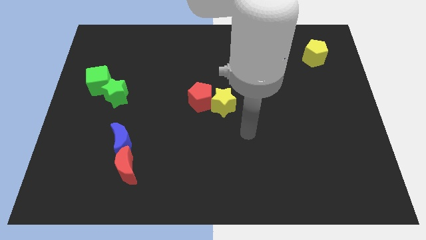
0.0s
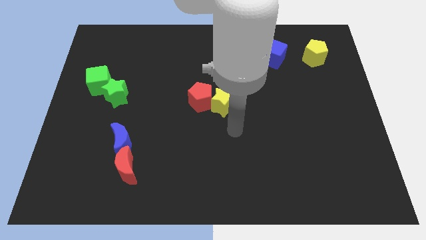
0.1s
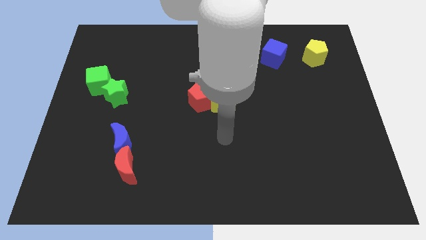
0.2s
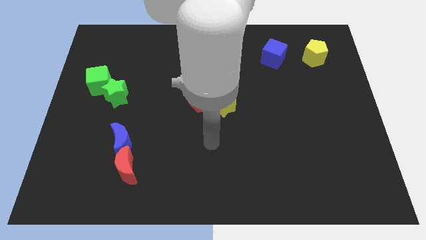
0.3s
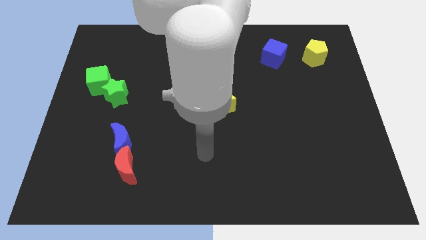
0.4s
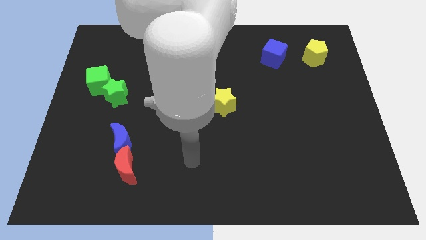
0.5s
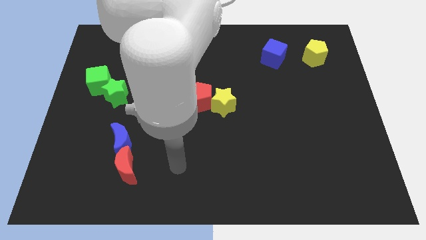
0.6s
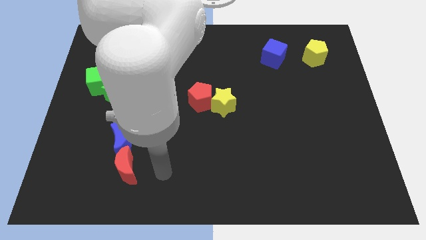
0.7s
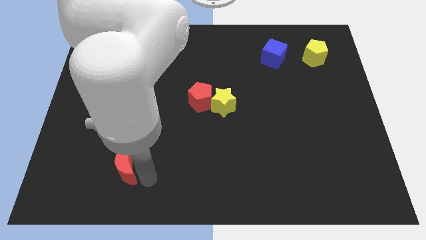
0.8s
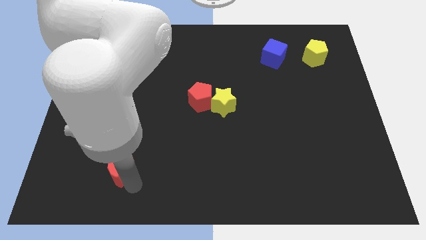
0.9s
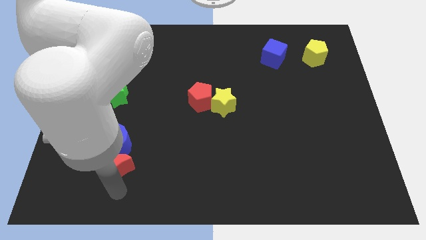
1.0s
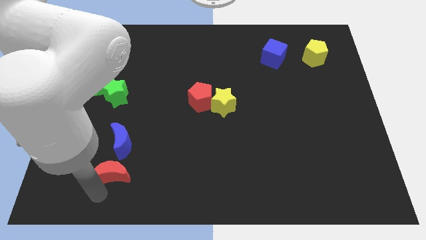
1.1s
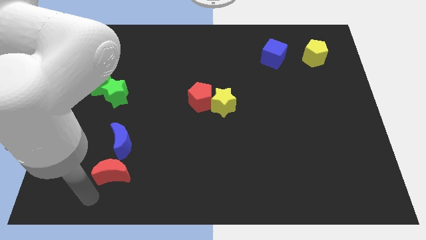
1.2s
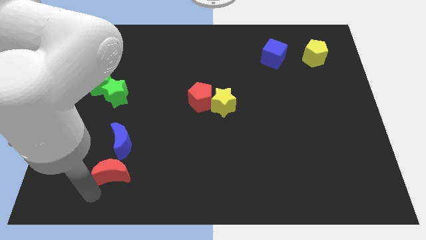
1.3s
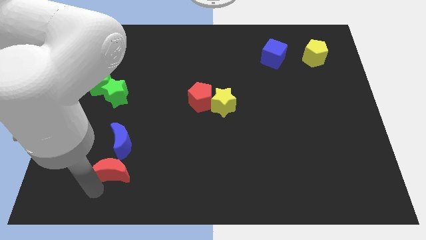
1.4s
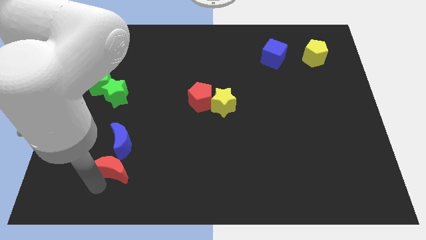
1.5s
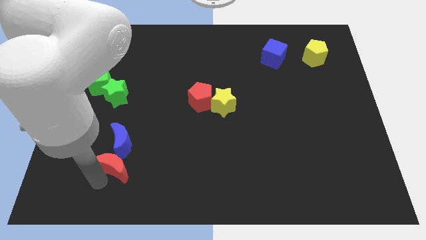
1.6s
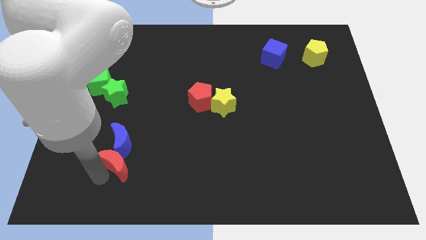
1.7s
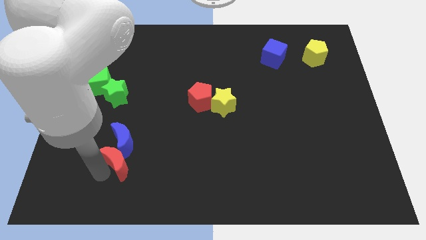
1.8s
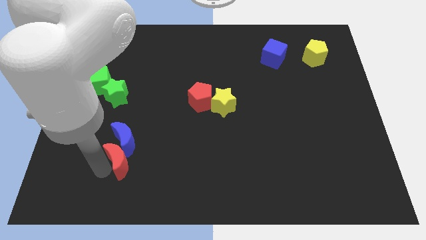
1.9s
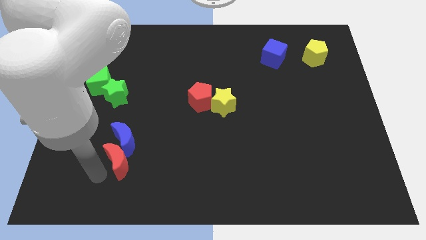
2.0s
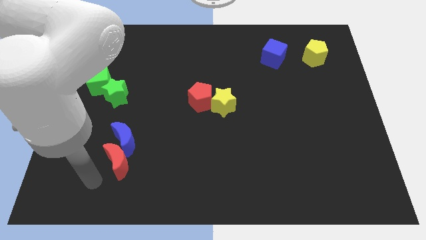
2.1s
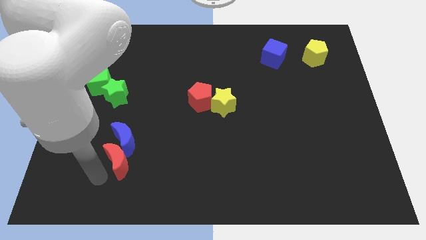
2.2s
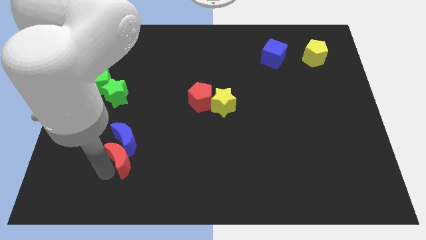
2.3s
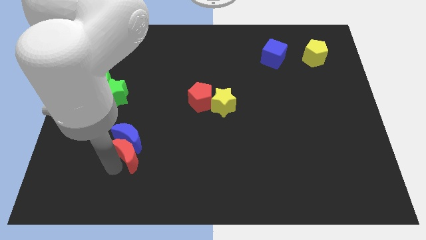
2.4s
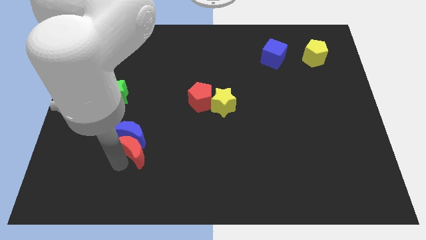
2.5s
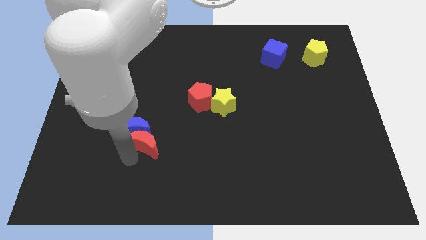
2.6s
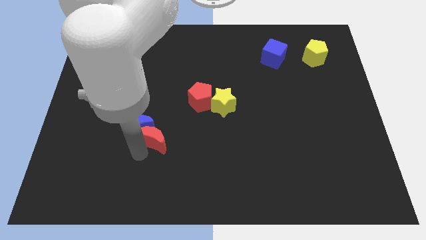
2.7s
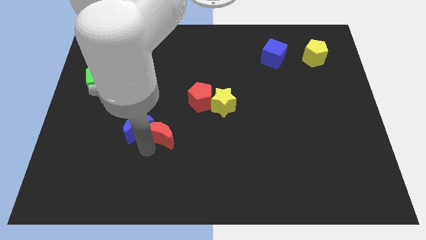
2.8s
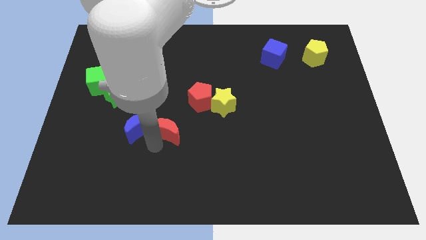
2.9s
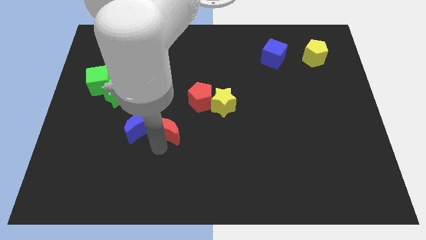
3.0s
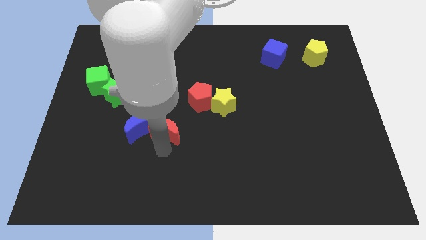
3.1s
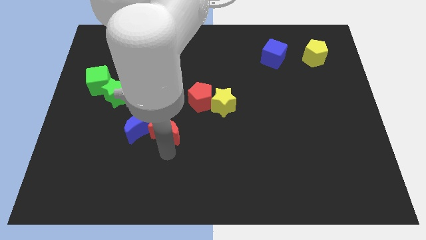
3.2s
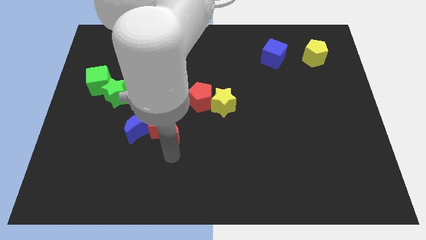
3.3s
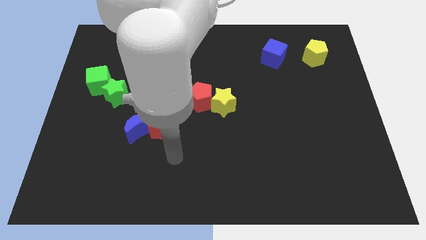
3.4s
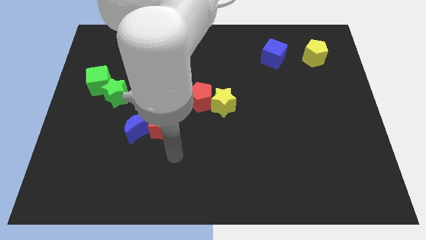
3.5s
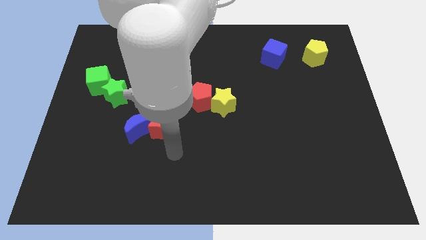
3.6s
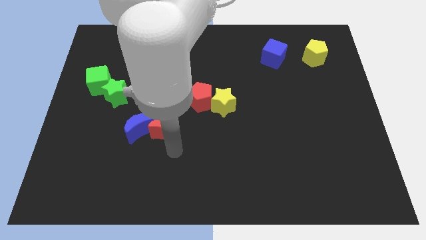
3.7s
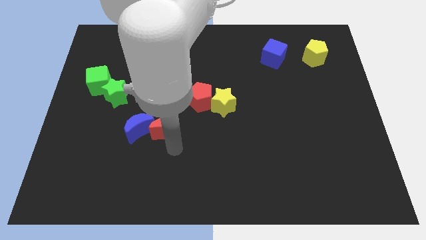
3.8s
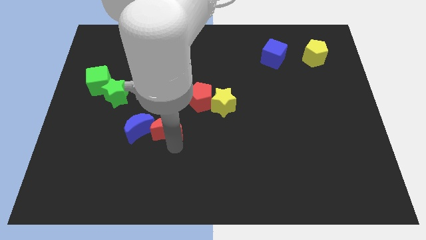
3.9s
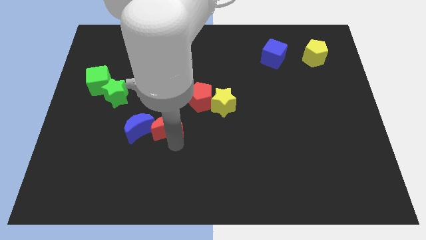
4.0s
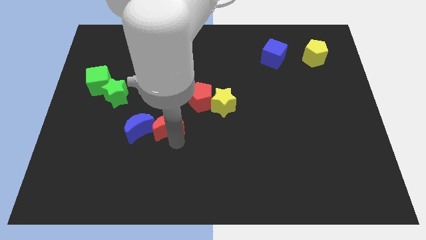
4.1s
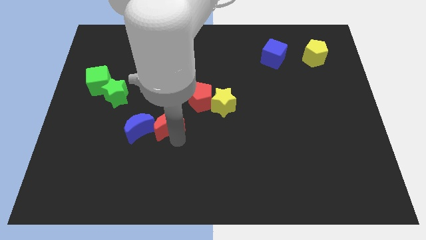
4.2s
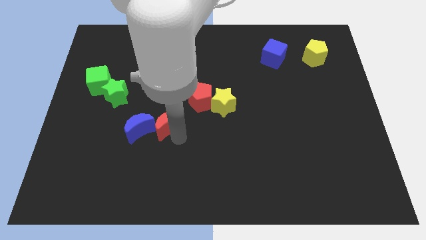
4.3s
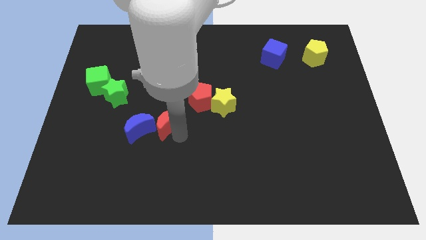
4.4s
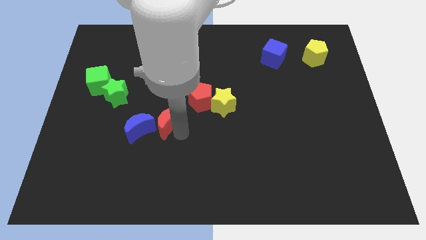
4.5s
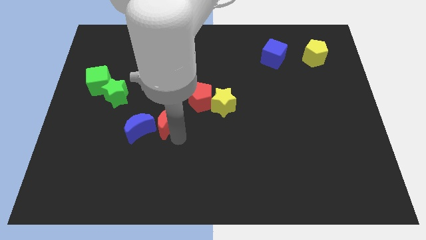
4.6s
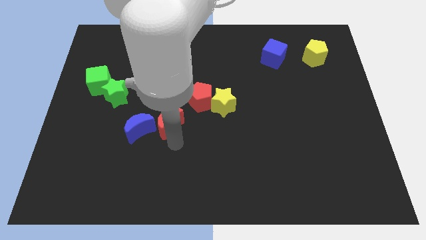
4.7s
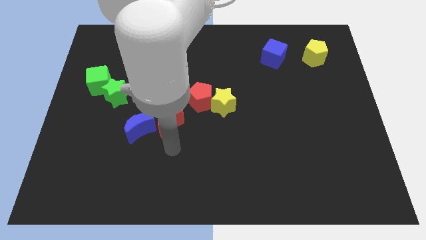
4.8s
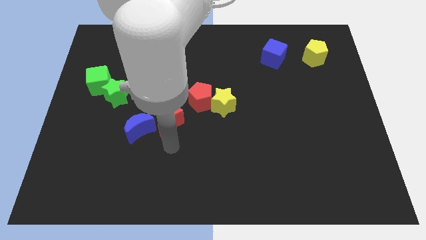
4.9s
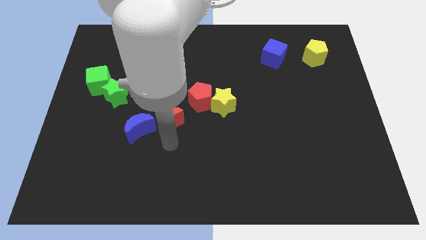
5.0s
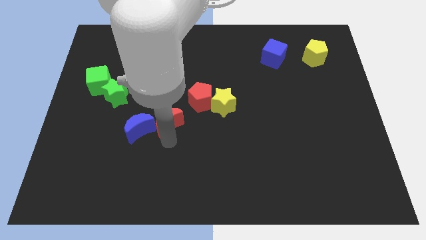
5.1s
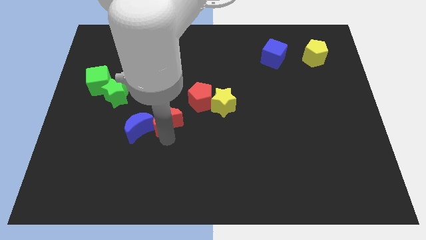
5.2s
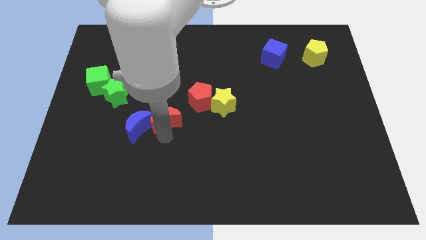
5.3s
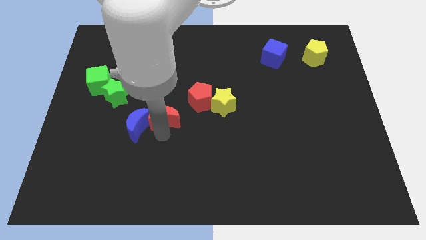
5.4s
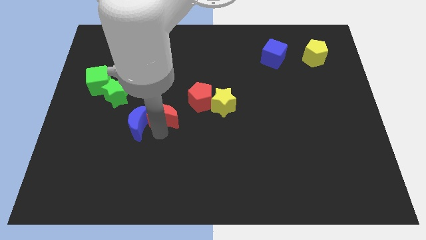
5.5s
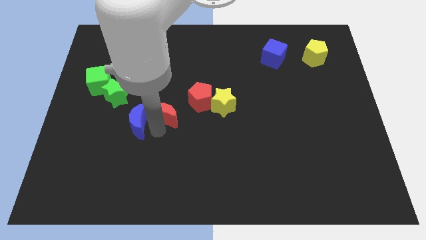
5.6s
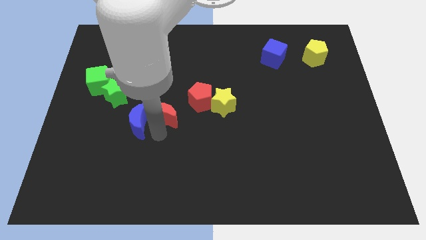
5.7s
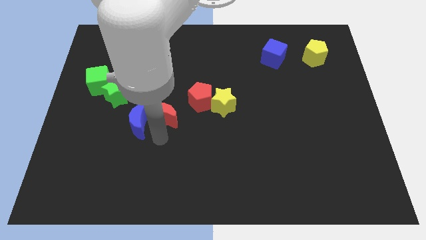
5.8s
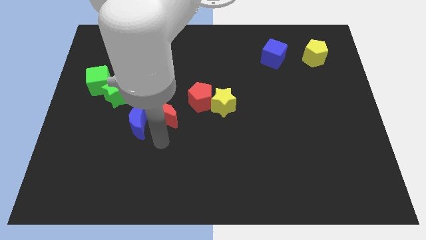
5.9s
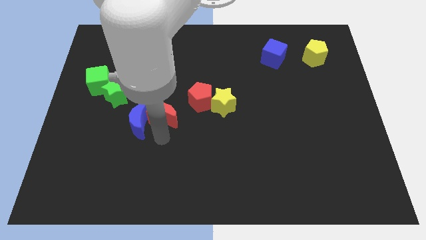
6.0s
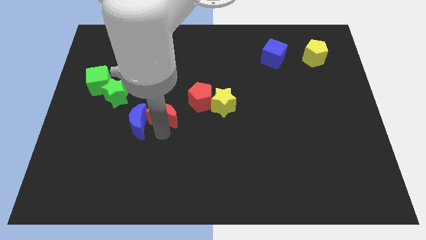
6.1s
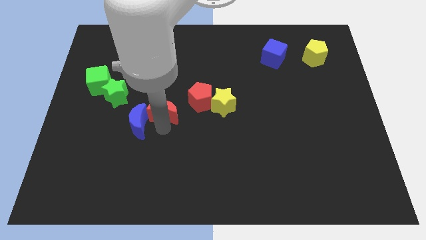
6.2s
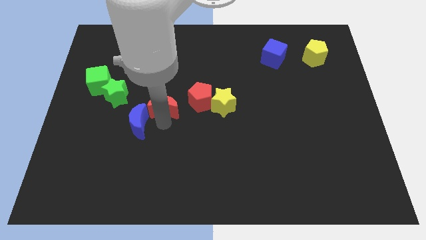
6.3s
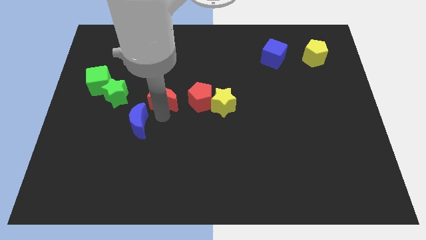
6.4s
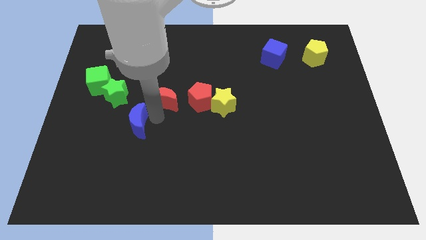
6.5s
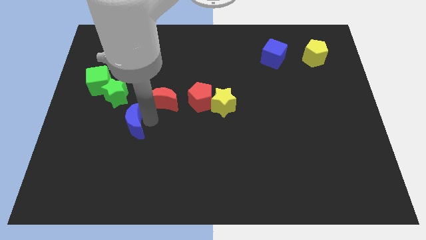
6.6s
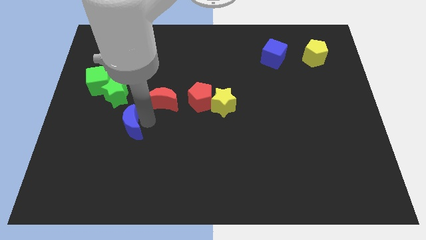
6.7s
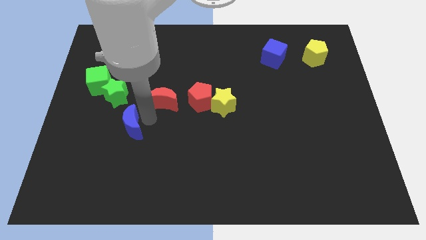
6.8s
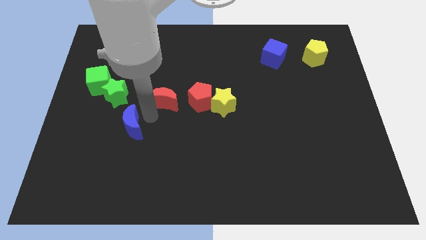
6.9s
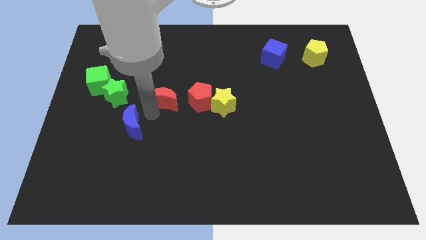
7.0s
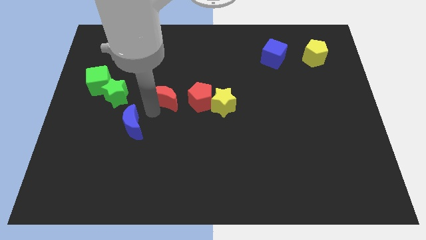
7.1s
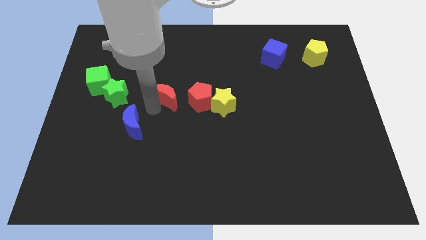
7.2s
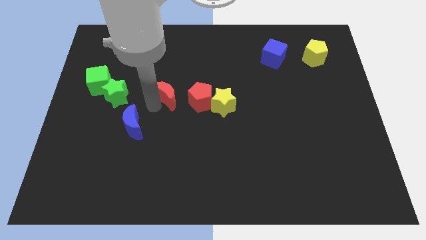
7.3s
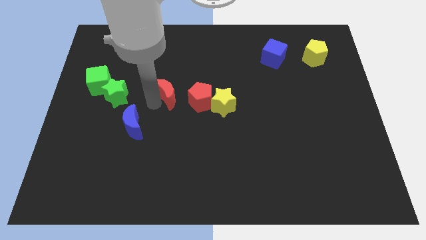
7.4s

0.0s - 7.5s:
slide the red moon diagonally up and to the left of the red pentagon
